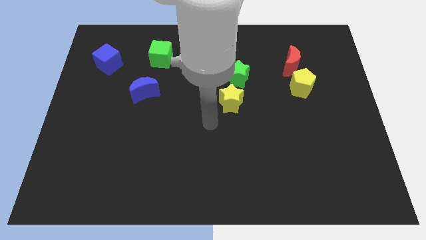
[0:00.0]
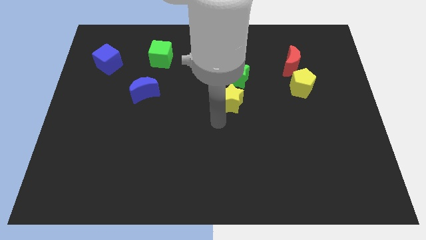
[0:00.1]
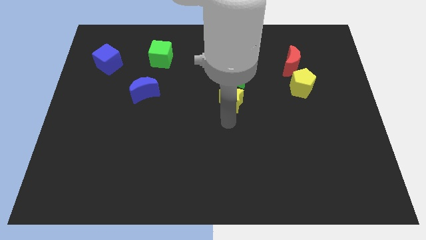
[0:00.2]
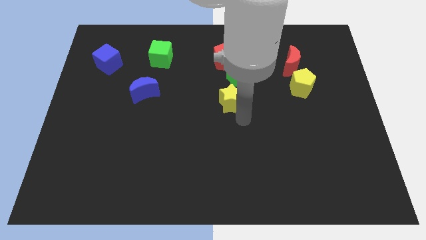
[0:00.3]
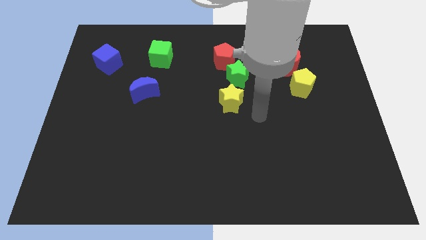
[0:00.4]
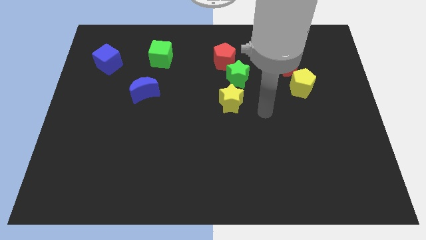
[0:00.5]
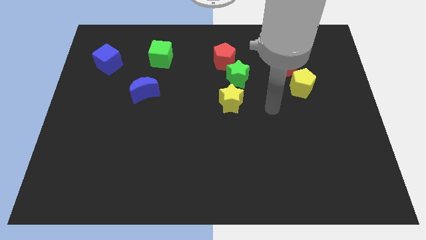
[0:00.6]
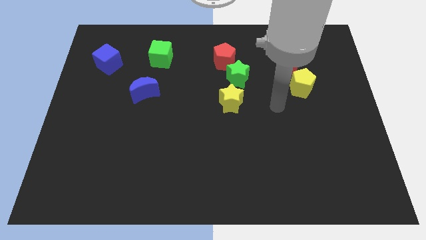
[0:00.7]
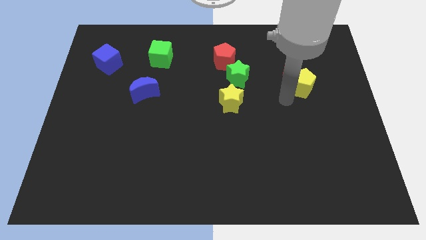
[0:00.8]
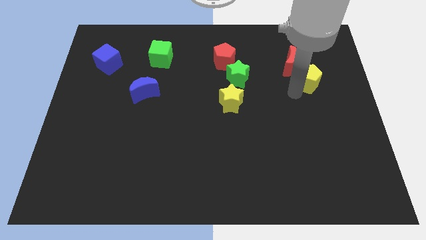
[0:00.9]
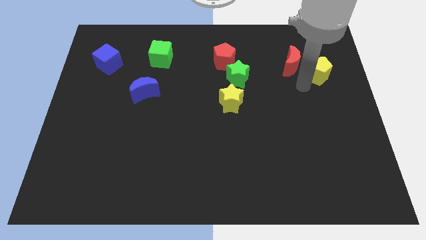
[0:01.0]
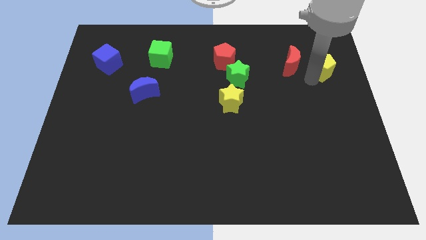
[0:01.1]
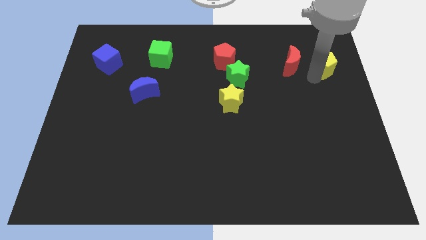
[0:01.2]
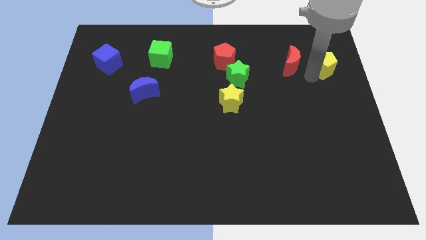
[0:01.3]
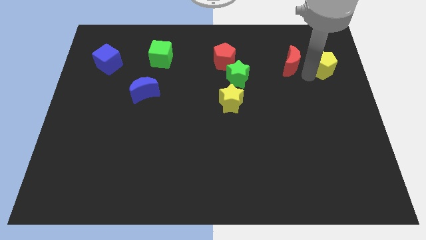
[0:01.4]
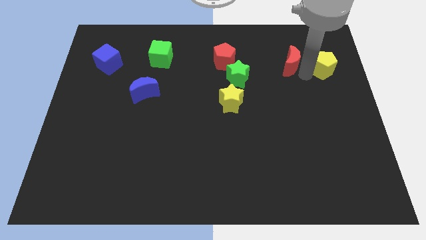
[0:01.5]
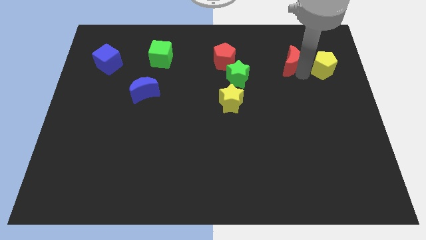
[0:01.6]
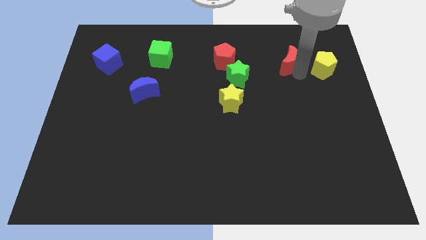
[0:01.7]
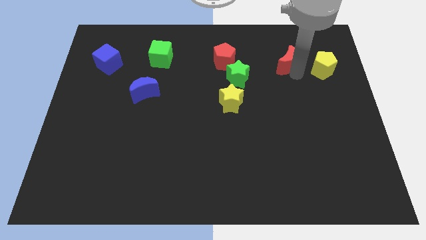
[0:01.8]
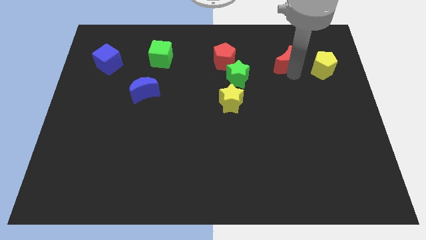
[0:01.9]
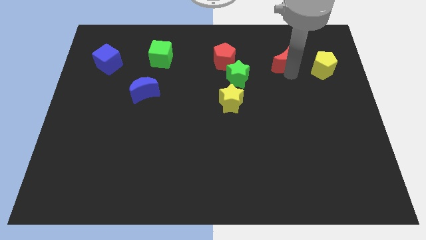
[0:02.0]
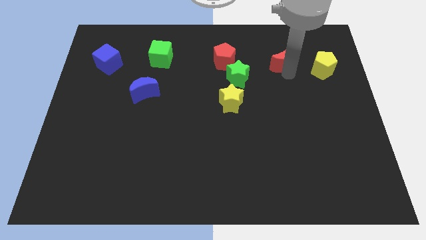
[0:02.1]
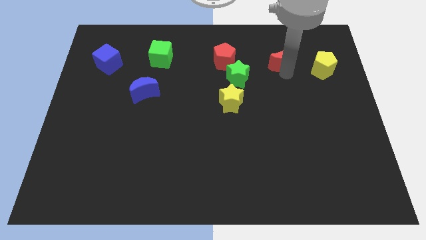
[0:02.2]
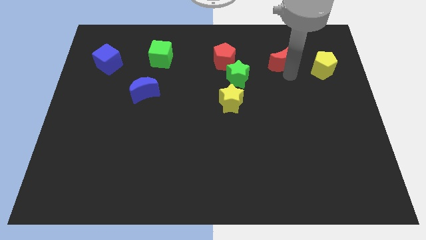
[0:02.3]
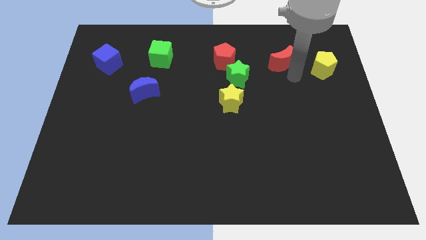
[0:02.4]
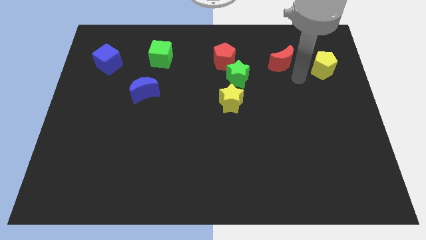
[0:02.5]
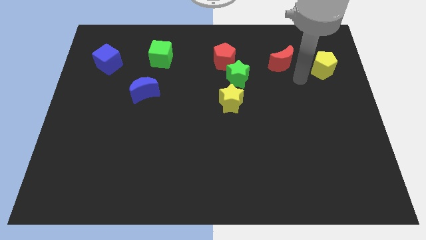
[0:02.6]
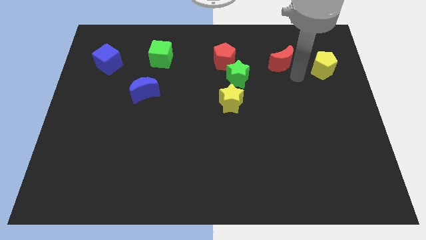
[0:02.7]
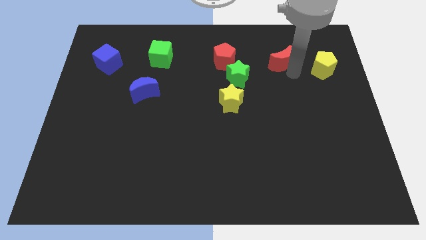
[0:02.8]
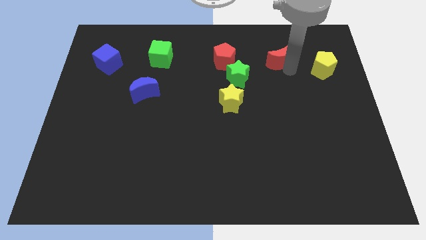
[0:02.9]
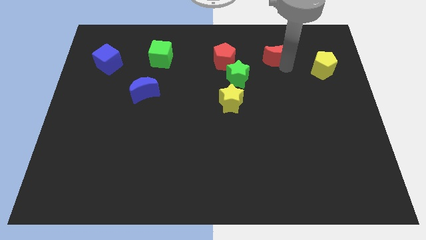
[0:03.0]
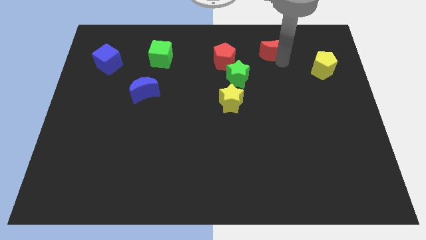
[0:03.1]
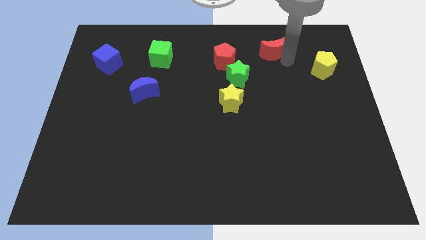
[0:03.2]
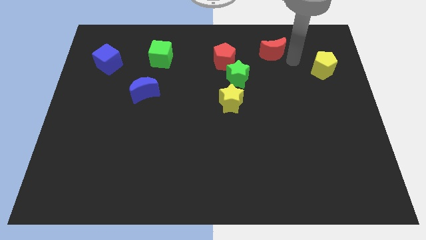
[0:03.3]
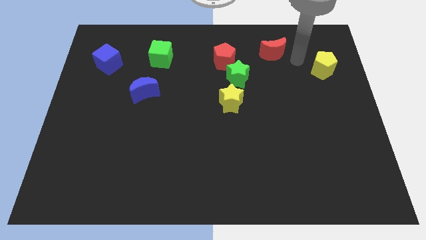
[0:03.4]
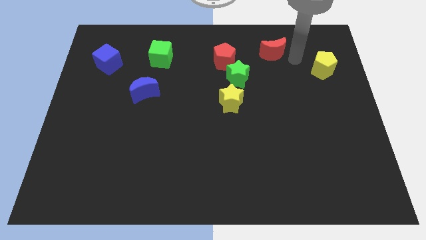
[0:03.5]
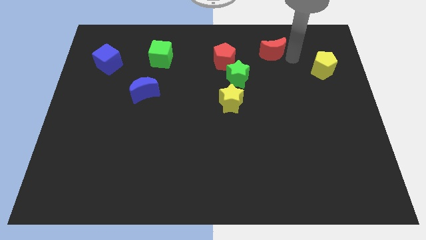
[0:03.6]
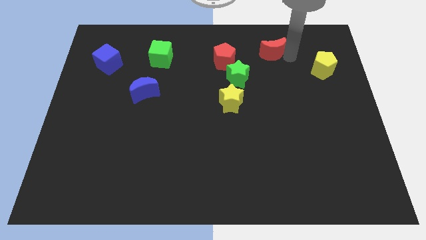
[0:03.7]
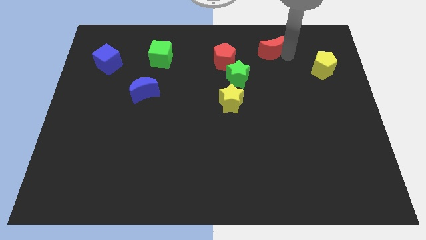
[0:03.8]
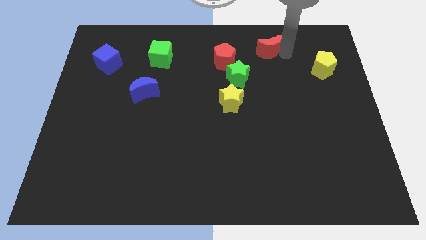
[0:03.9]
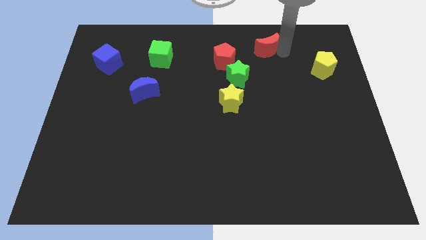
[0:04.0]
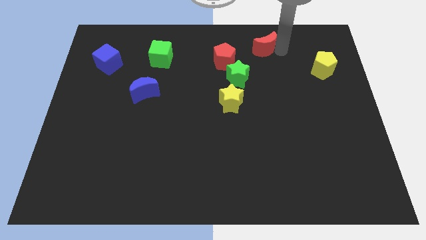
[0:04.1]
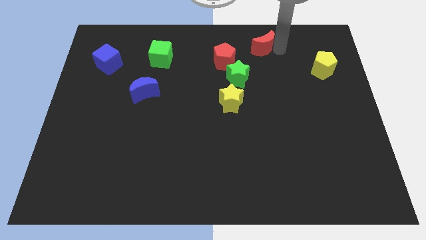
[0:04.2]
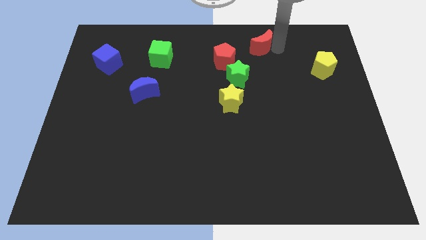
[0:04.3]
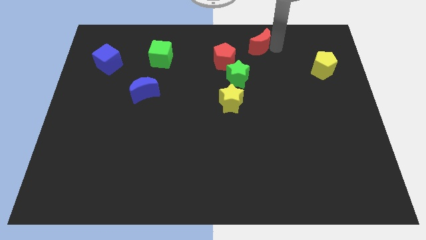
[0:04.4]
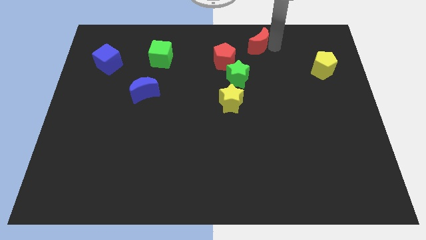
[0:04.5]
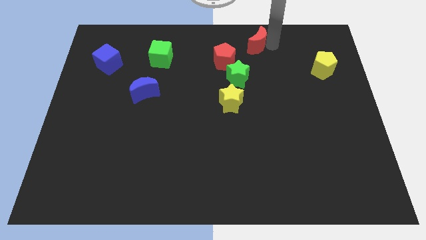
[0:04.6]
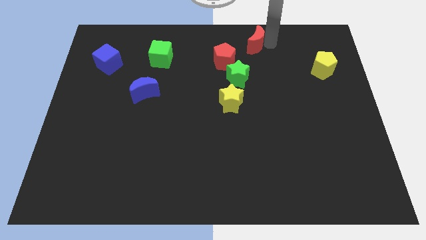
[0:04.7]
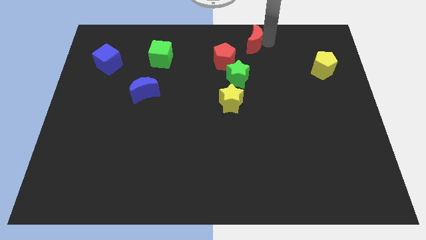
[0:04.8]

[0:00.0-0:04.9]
push the red moon to the top side
